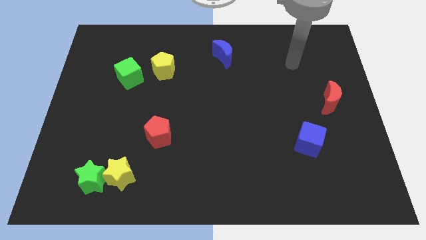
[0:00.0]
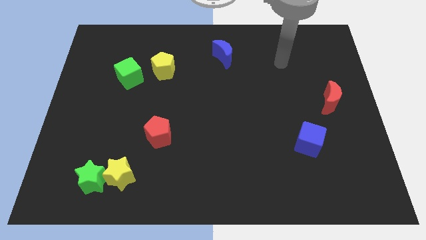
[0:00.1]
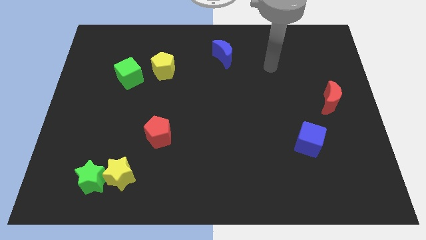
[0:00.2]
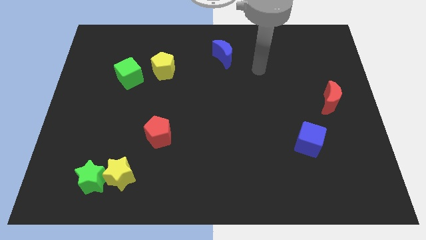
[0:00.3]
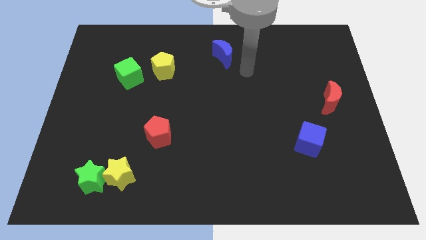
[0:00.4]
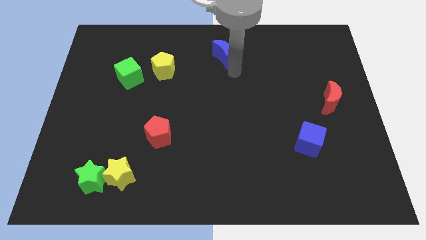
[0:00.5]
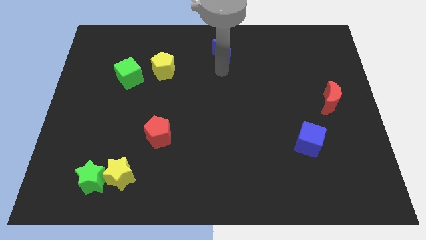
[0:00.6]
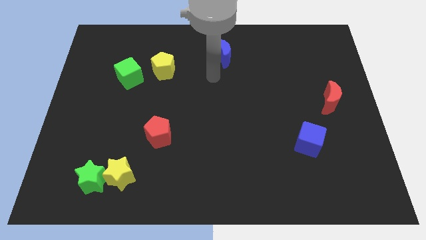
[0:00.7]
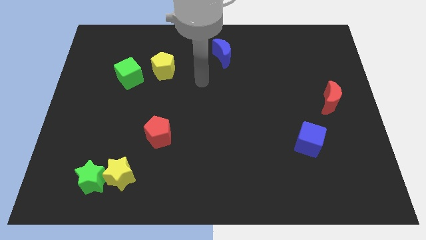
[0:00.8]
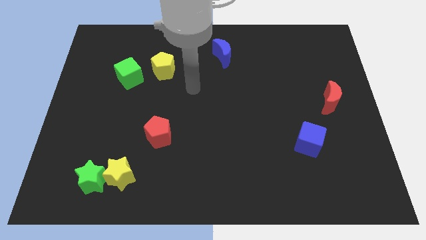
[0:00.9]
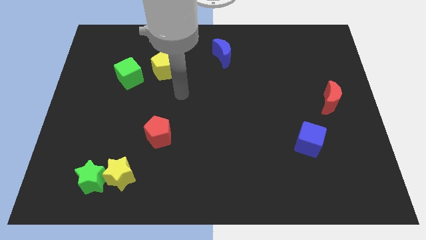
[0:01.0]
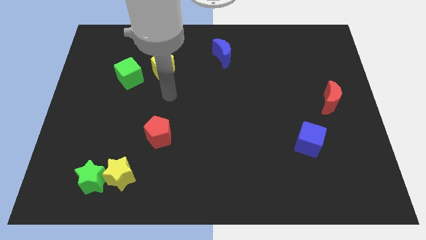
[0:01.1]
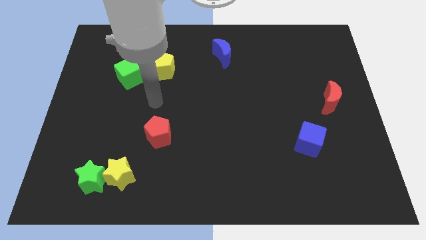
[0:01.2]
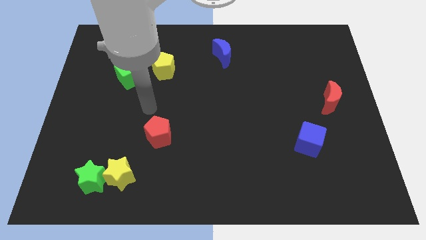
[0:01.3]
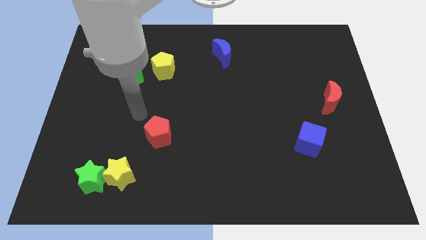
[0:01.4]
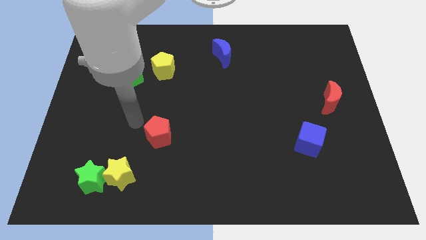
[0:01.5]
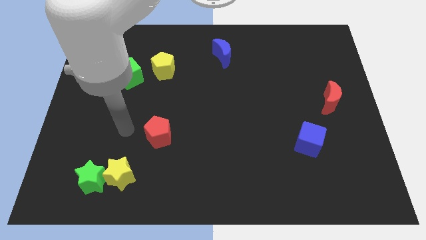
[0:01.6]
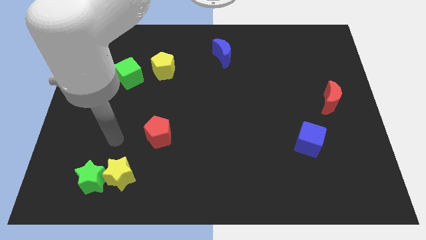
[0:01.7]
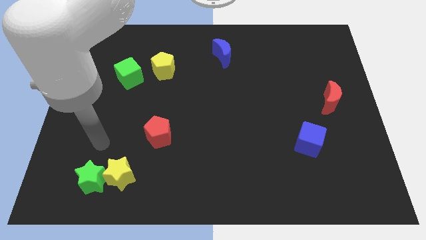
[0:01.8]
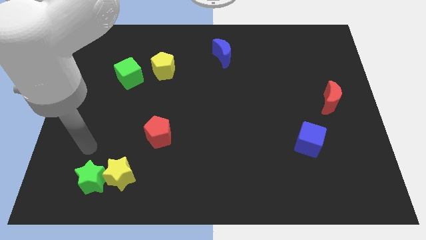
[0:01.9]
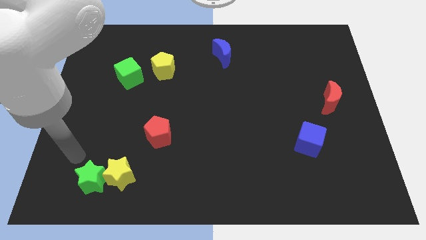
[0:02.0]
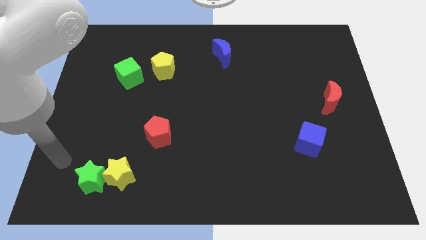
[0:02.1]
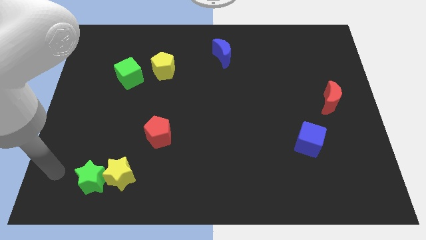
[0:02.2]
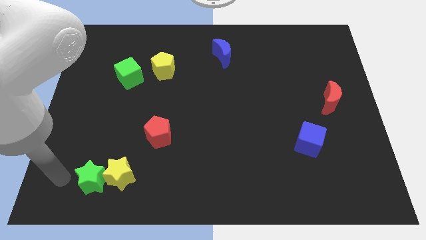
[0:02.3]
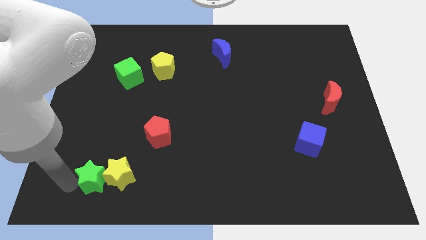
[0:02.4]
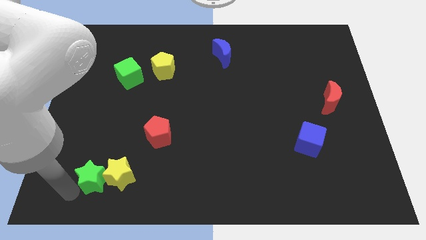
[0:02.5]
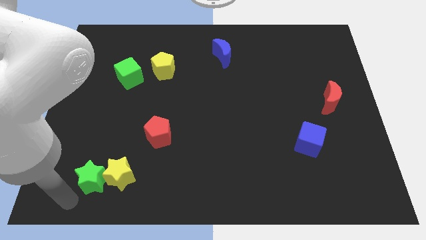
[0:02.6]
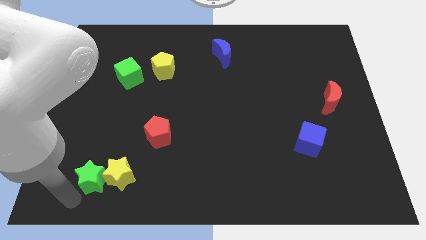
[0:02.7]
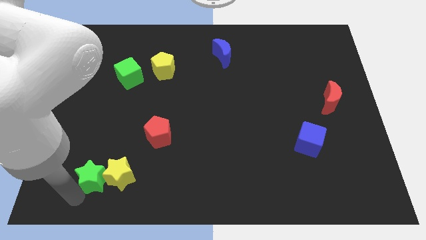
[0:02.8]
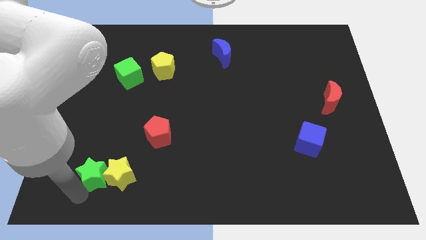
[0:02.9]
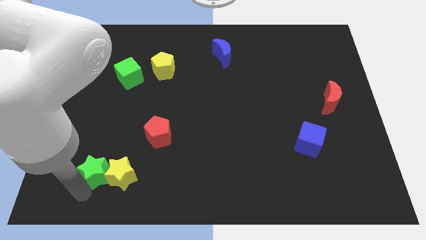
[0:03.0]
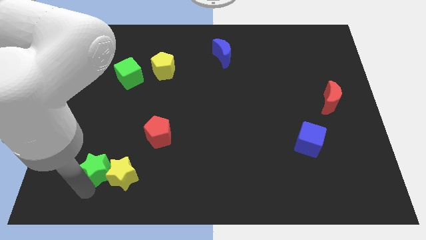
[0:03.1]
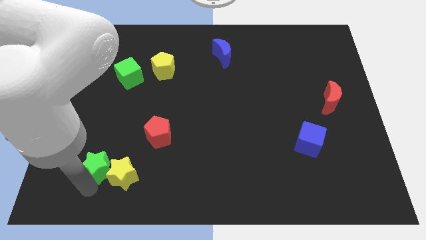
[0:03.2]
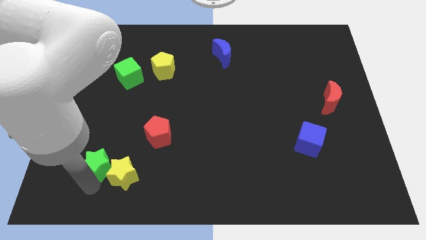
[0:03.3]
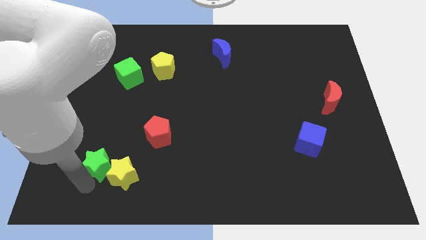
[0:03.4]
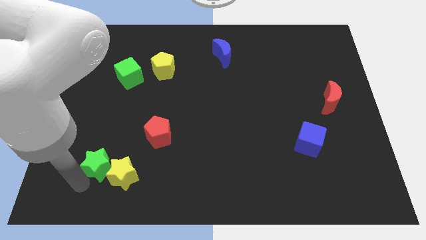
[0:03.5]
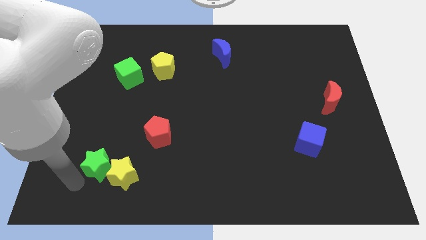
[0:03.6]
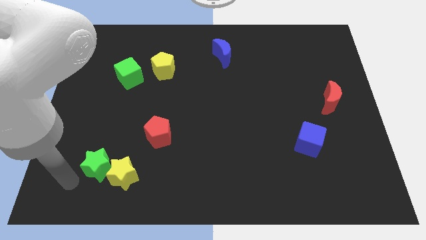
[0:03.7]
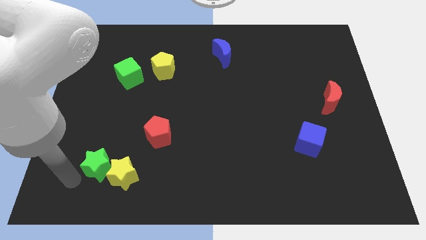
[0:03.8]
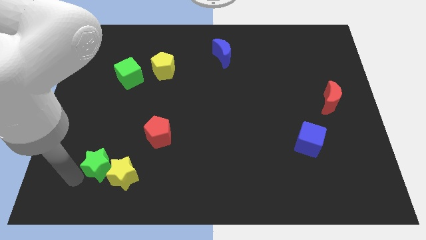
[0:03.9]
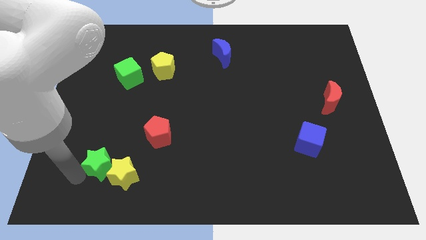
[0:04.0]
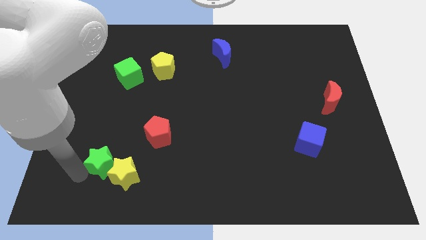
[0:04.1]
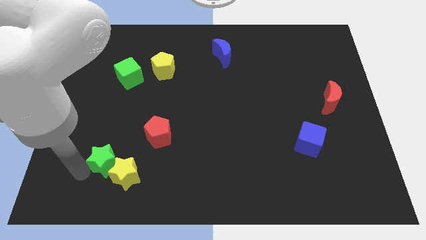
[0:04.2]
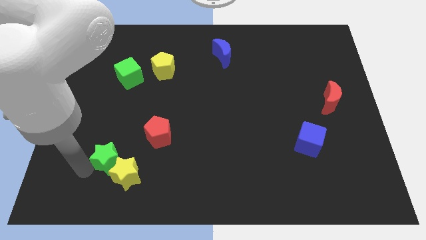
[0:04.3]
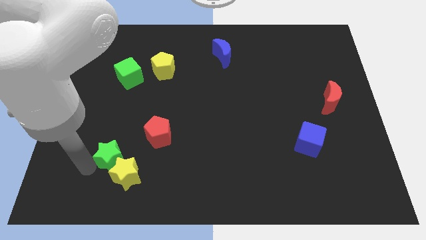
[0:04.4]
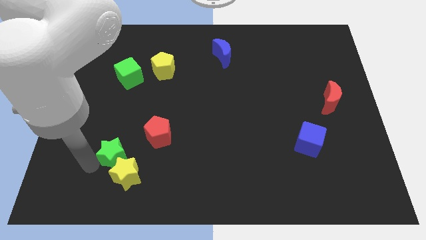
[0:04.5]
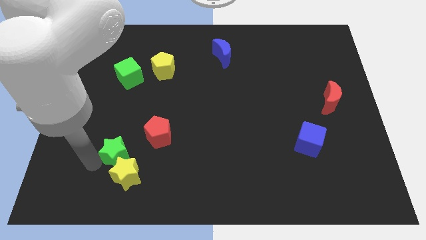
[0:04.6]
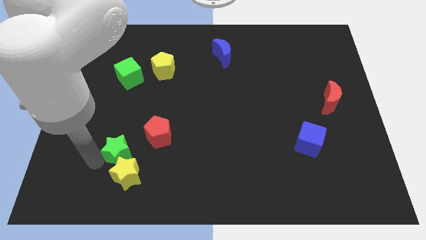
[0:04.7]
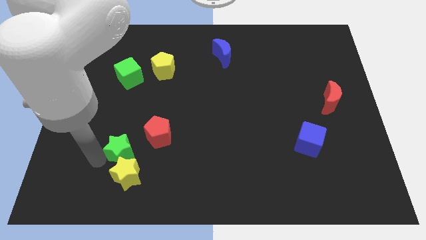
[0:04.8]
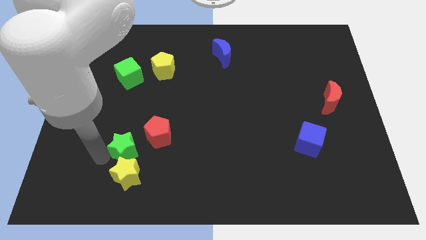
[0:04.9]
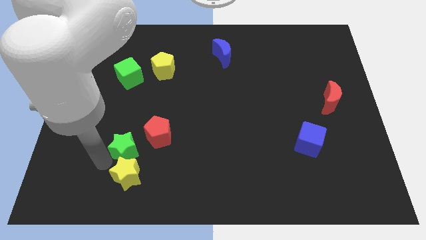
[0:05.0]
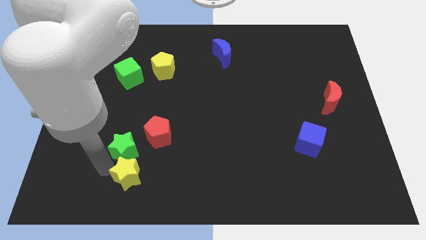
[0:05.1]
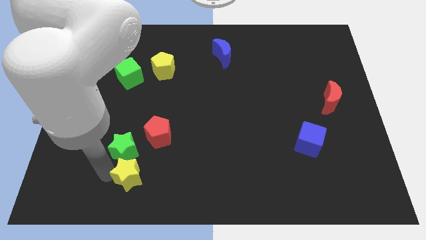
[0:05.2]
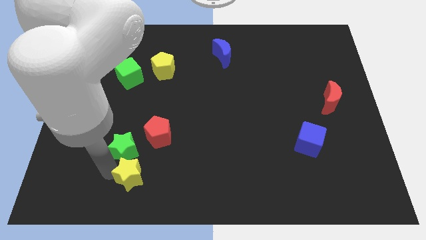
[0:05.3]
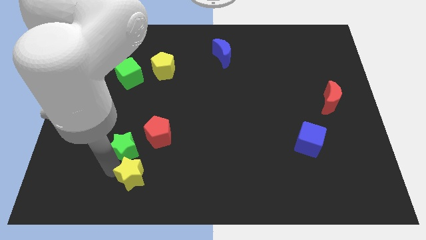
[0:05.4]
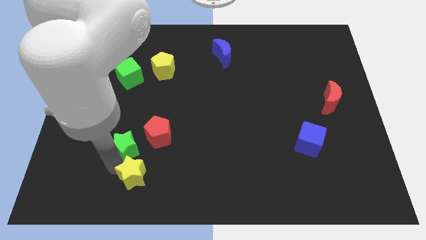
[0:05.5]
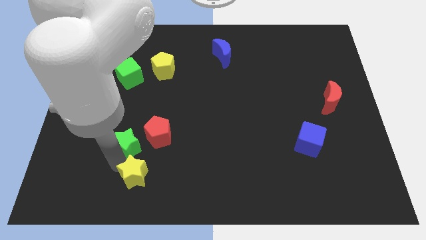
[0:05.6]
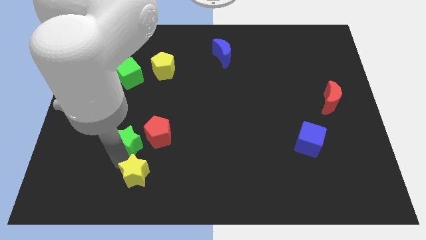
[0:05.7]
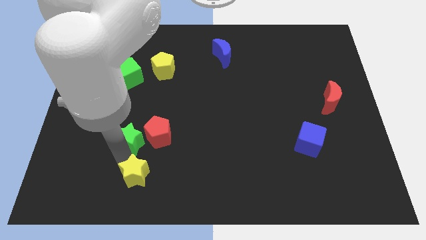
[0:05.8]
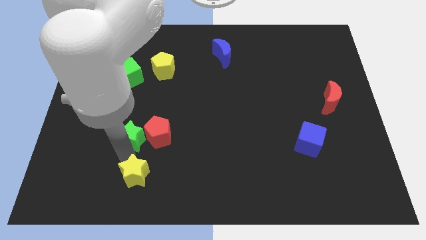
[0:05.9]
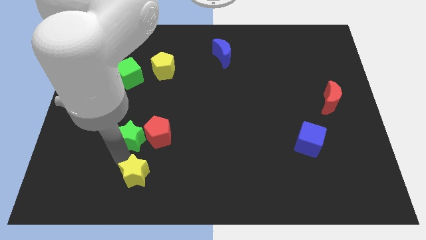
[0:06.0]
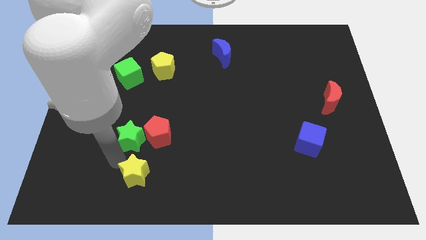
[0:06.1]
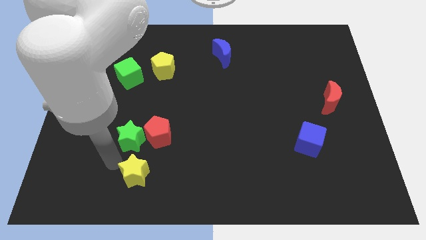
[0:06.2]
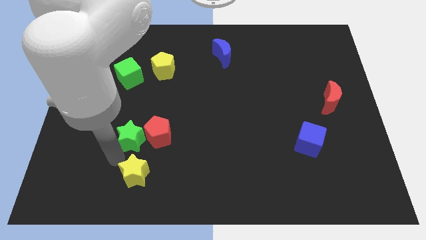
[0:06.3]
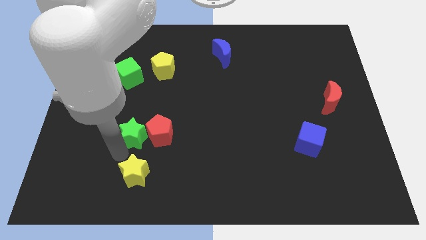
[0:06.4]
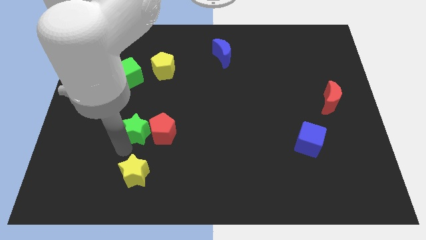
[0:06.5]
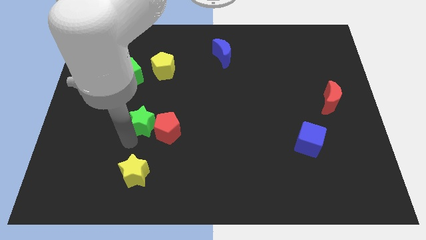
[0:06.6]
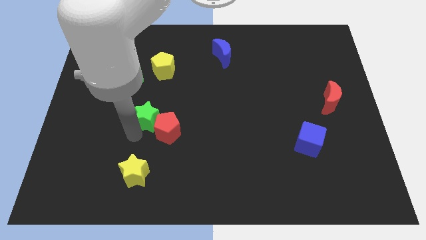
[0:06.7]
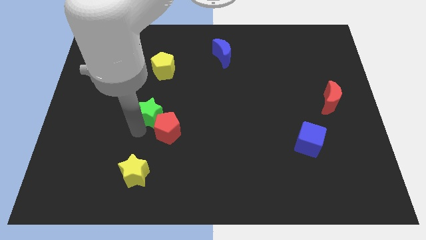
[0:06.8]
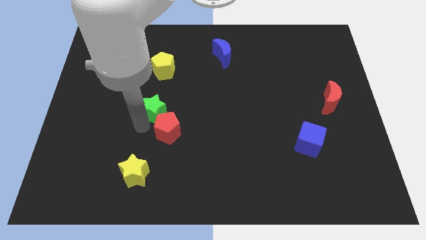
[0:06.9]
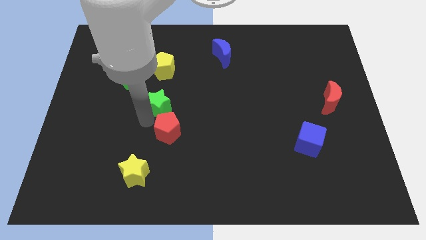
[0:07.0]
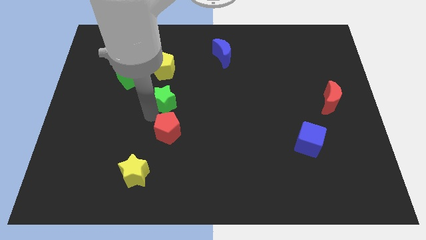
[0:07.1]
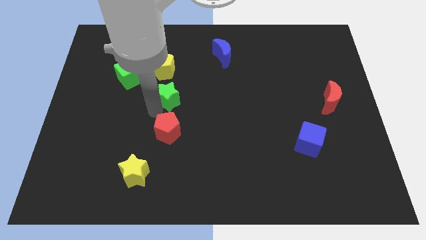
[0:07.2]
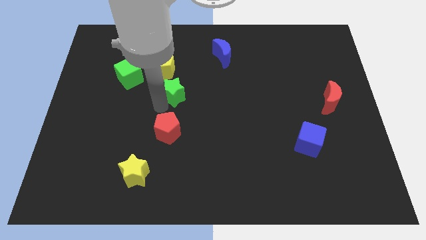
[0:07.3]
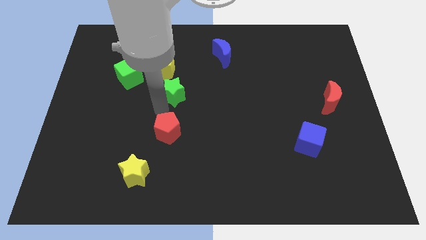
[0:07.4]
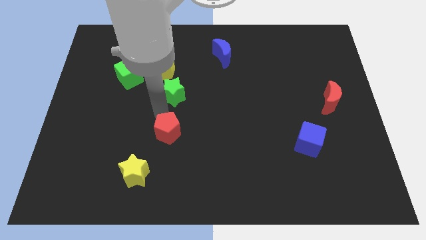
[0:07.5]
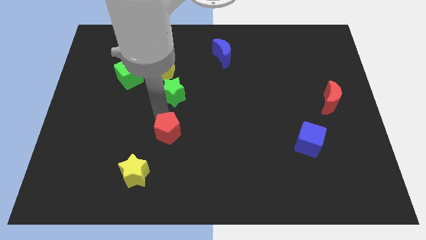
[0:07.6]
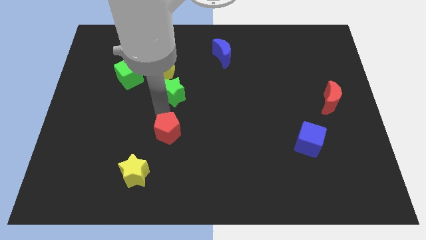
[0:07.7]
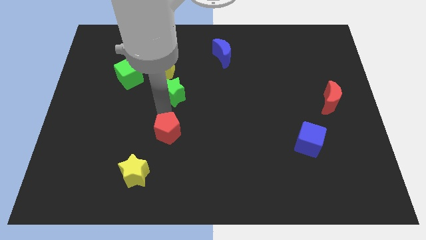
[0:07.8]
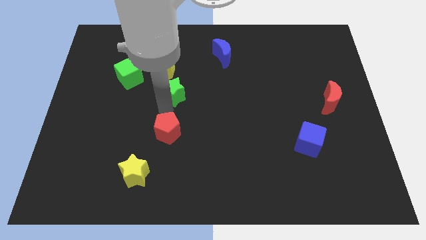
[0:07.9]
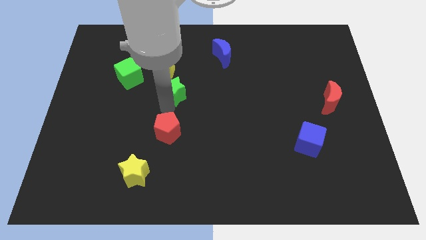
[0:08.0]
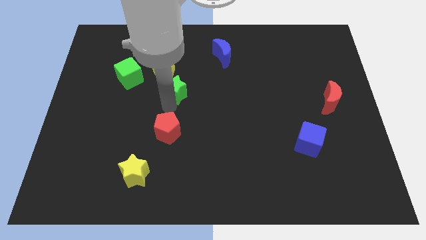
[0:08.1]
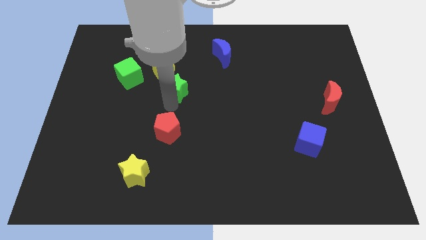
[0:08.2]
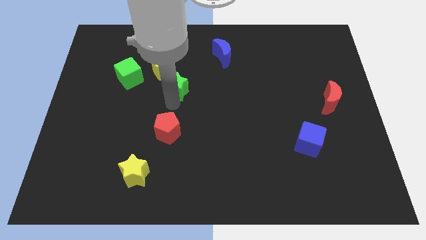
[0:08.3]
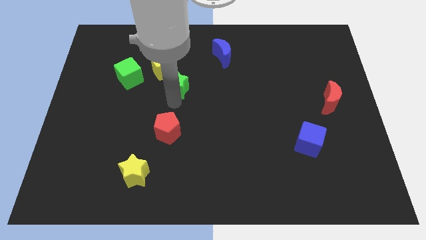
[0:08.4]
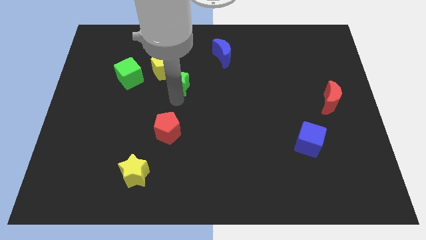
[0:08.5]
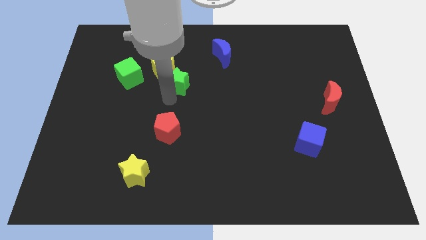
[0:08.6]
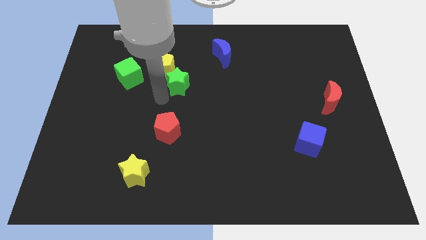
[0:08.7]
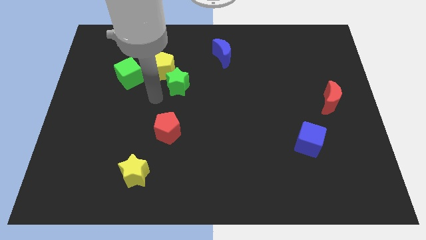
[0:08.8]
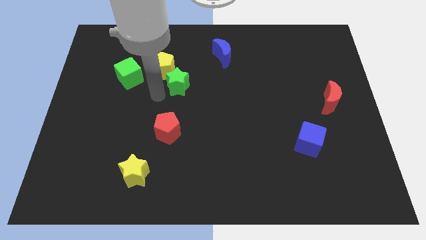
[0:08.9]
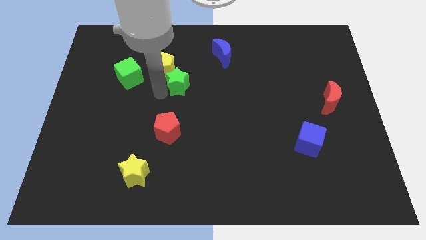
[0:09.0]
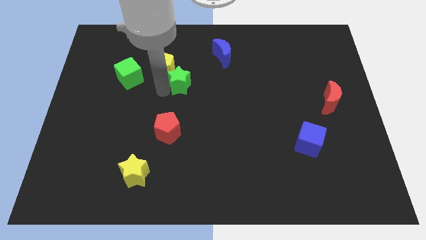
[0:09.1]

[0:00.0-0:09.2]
move the green star to the right side of the yellow pentagon
